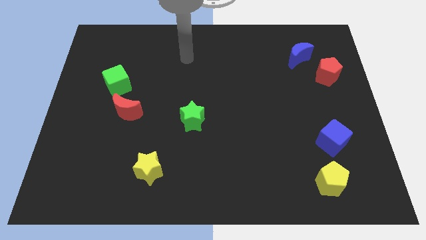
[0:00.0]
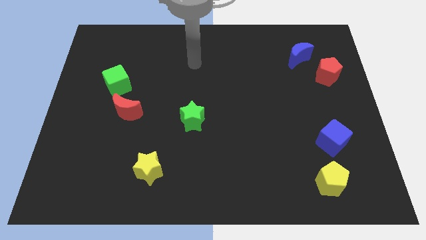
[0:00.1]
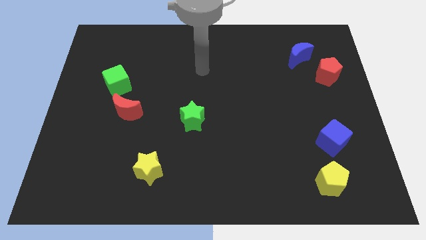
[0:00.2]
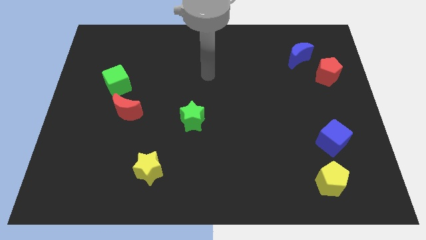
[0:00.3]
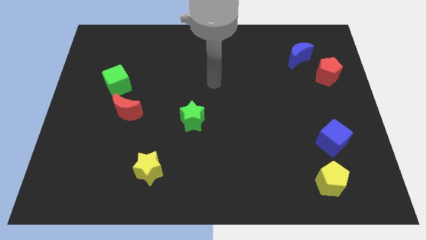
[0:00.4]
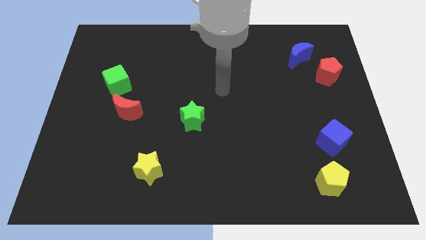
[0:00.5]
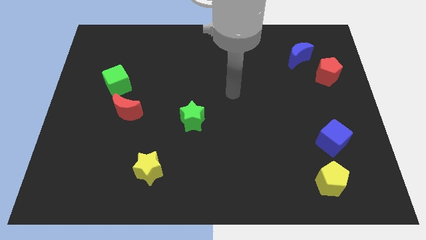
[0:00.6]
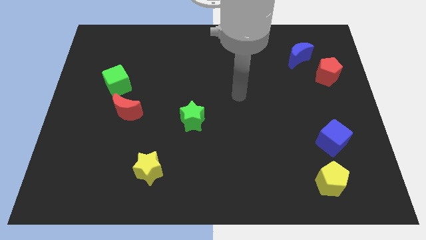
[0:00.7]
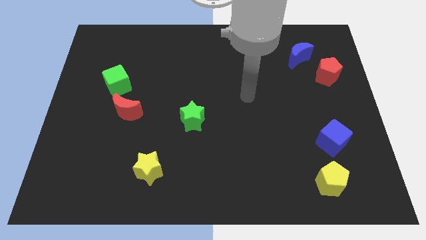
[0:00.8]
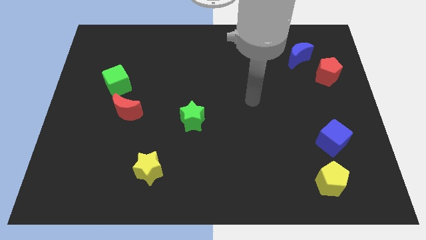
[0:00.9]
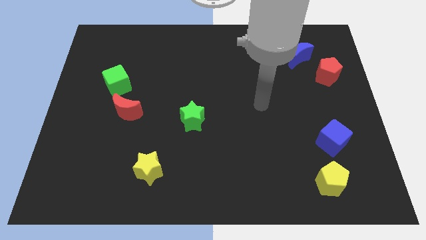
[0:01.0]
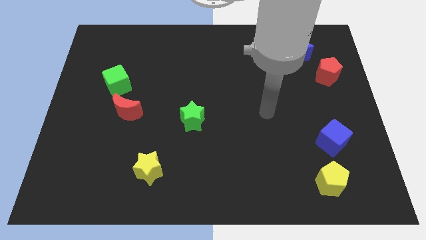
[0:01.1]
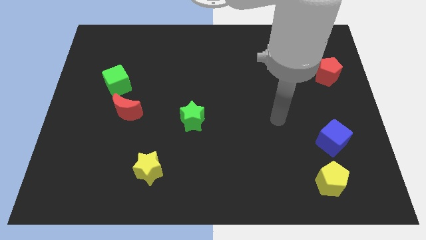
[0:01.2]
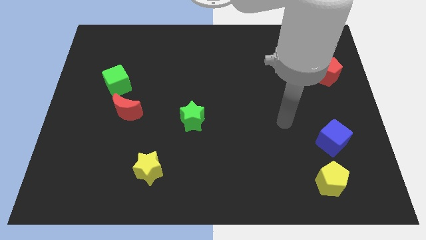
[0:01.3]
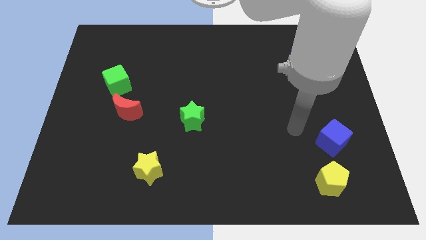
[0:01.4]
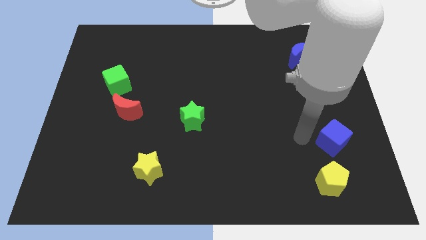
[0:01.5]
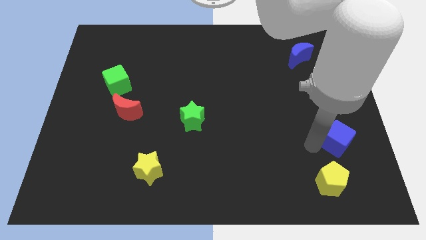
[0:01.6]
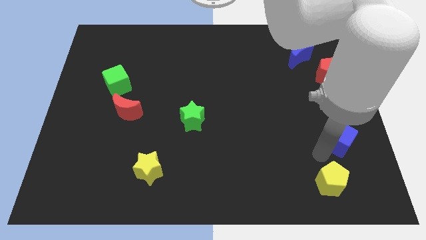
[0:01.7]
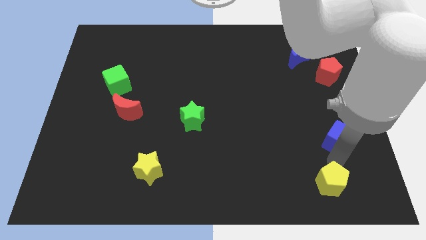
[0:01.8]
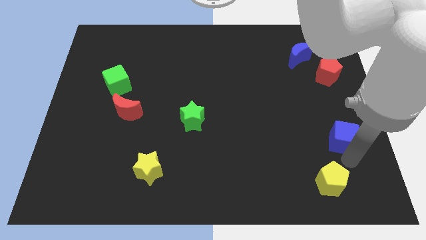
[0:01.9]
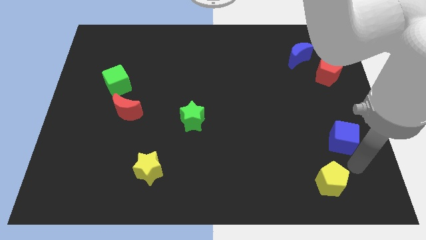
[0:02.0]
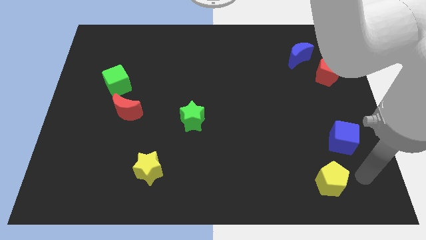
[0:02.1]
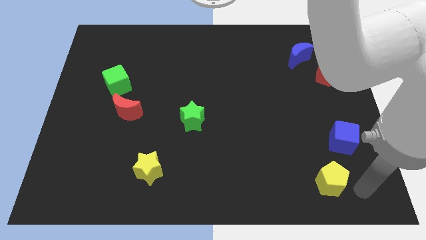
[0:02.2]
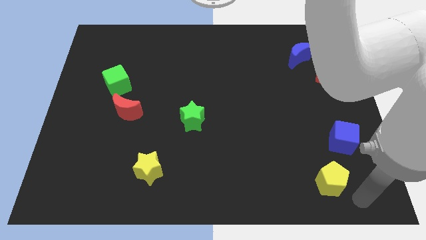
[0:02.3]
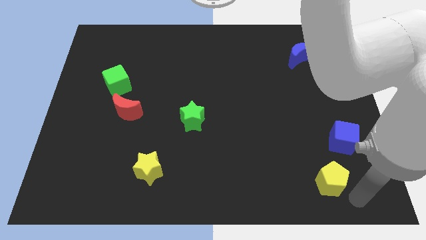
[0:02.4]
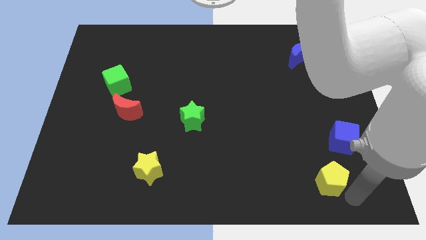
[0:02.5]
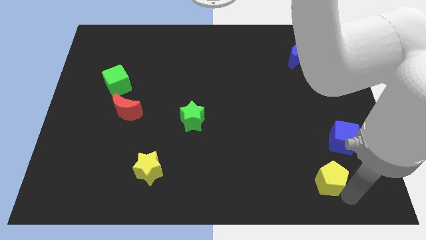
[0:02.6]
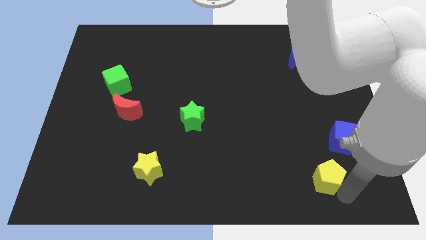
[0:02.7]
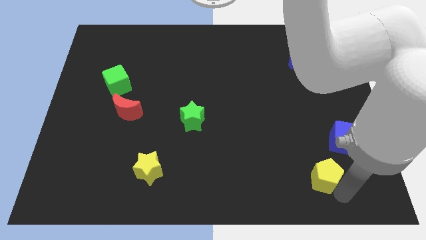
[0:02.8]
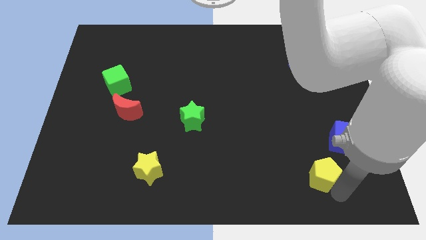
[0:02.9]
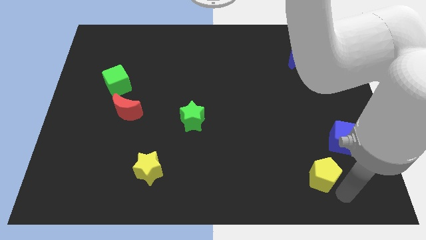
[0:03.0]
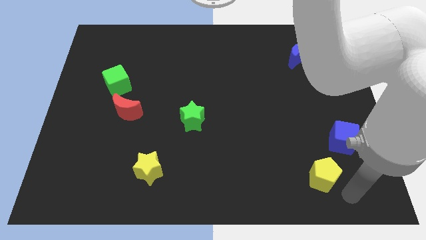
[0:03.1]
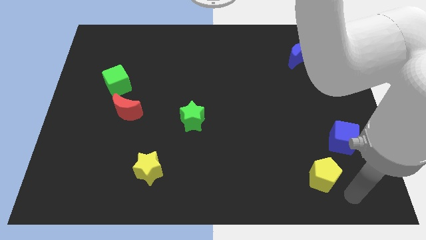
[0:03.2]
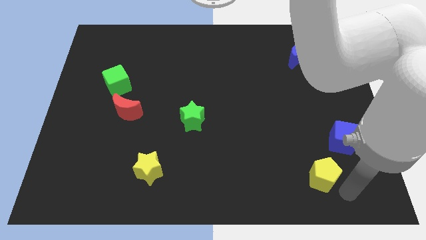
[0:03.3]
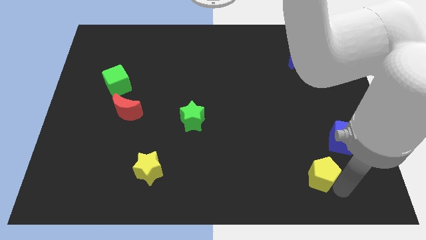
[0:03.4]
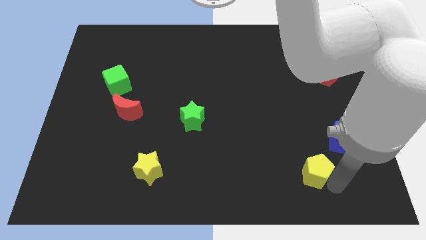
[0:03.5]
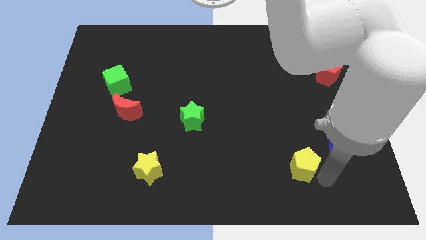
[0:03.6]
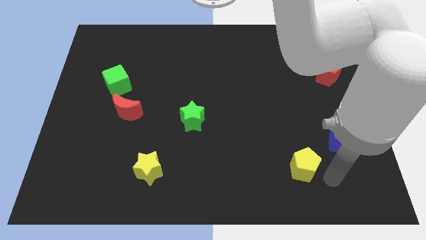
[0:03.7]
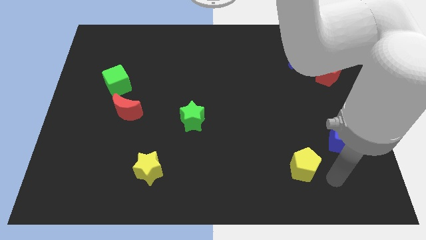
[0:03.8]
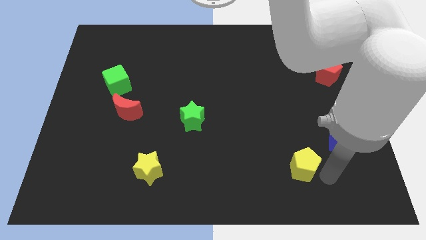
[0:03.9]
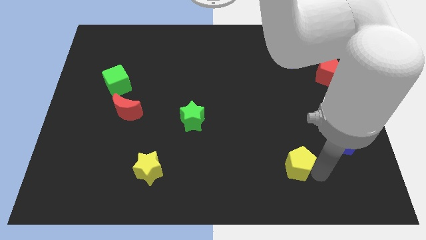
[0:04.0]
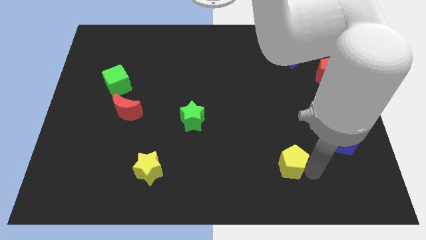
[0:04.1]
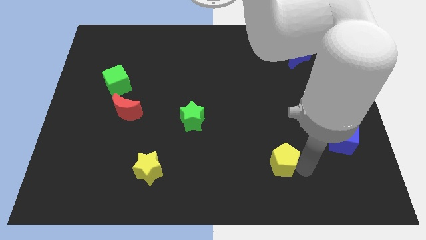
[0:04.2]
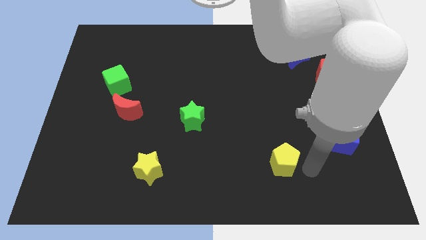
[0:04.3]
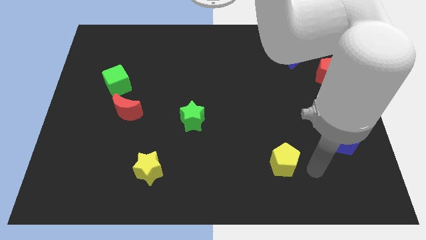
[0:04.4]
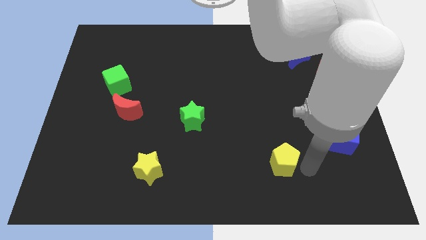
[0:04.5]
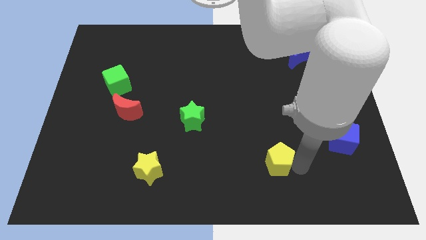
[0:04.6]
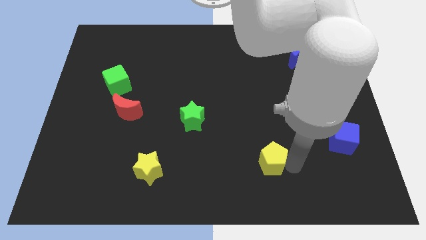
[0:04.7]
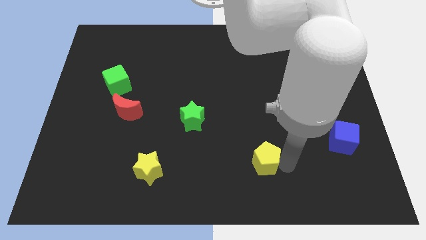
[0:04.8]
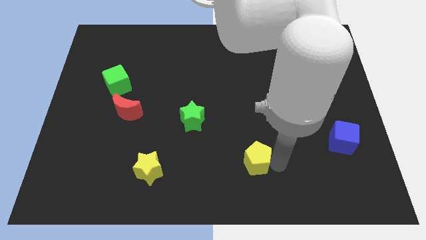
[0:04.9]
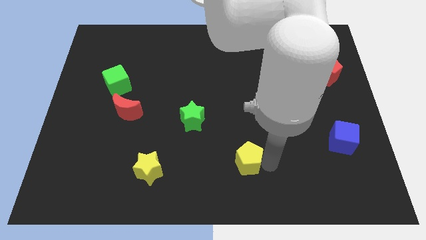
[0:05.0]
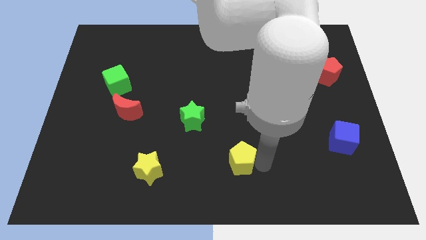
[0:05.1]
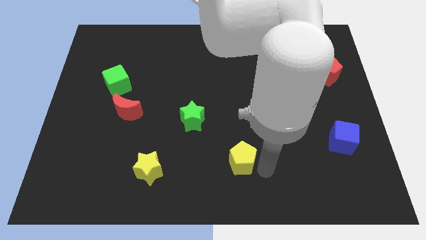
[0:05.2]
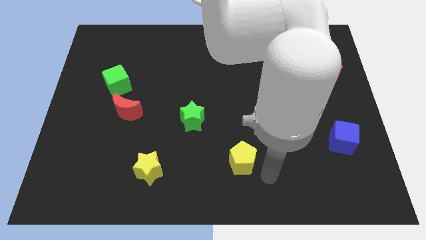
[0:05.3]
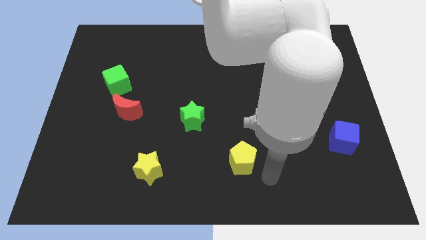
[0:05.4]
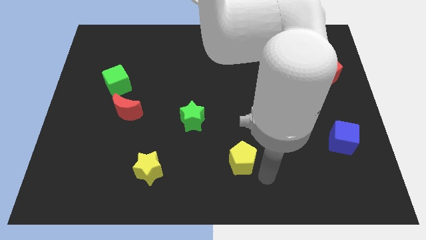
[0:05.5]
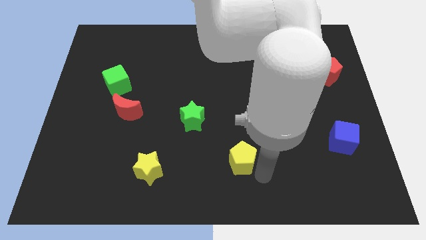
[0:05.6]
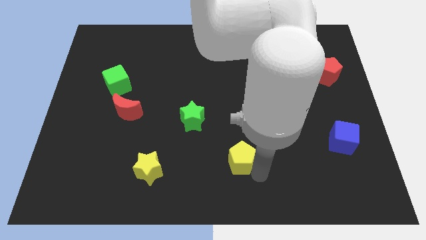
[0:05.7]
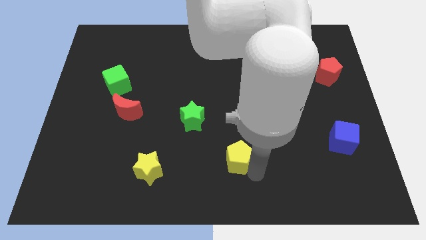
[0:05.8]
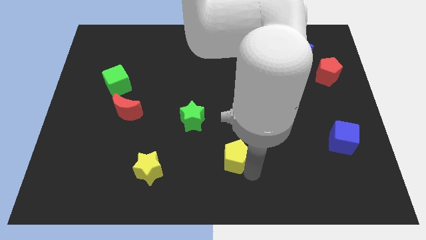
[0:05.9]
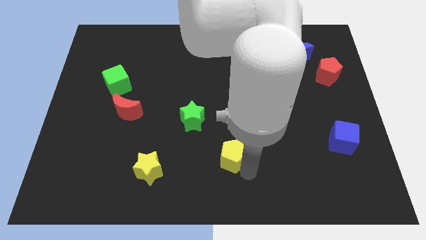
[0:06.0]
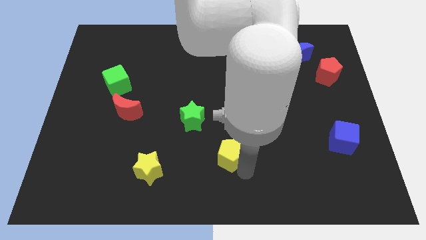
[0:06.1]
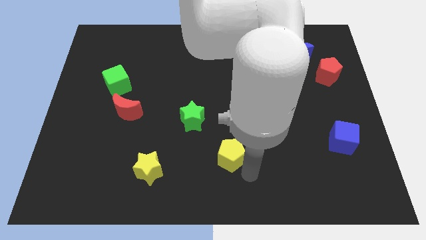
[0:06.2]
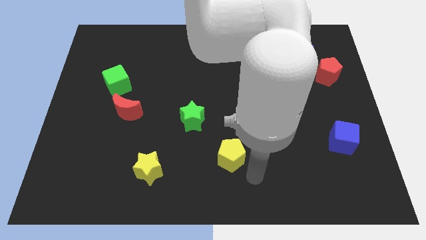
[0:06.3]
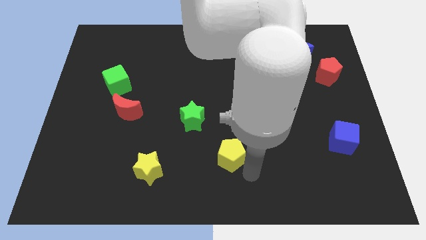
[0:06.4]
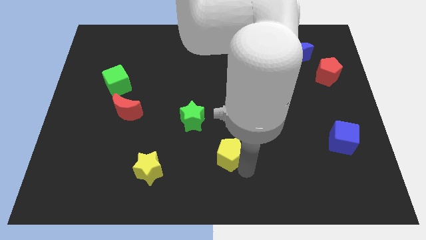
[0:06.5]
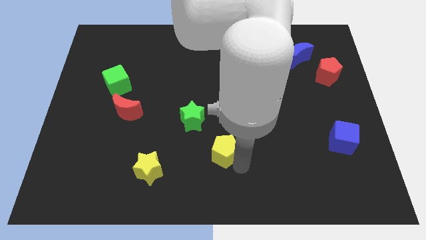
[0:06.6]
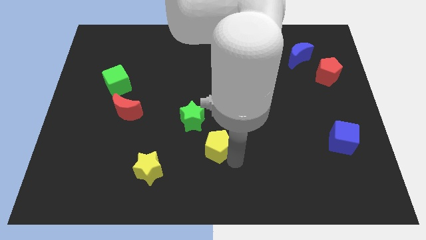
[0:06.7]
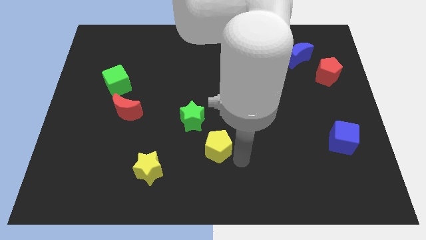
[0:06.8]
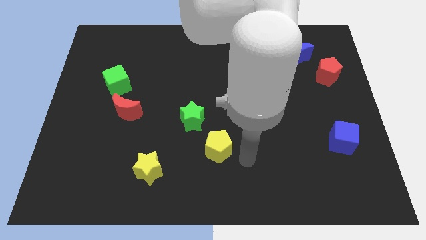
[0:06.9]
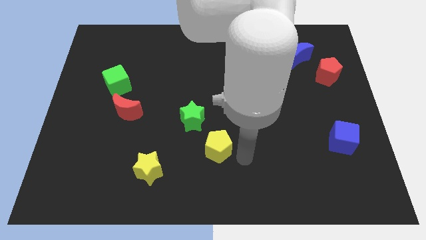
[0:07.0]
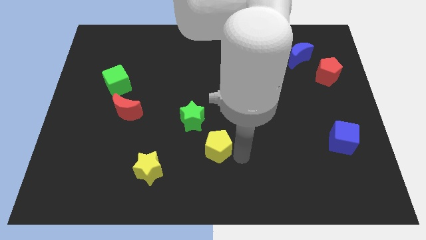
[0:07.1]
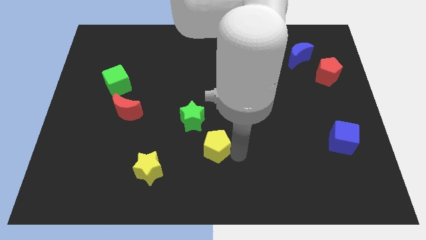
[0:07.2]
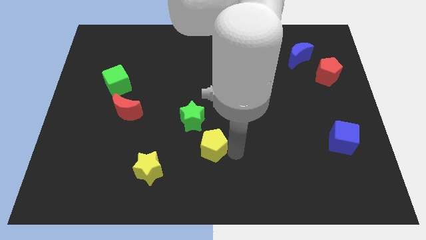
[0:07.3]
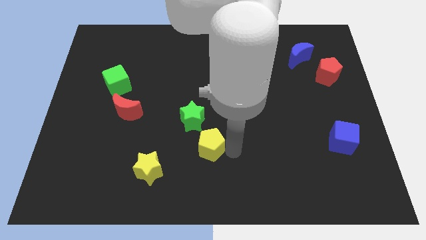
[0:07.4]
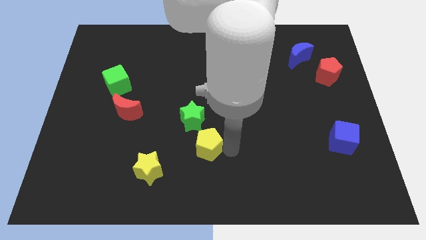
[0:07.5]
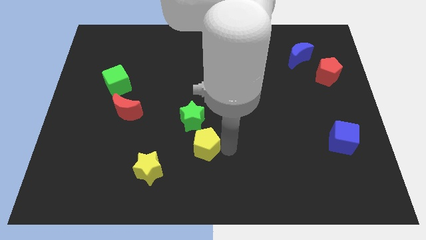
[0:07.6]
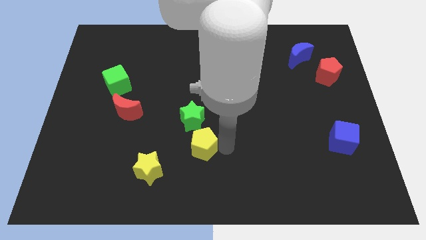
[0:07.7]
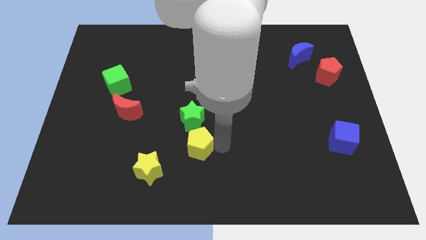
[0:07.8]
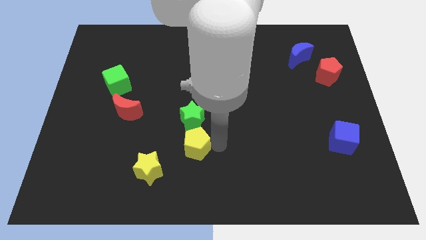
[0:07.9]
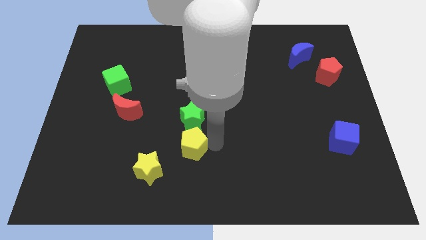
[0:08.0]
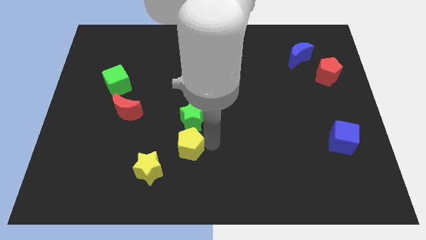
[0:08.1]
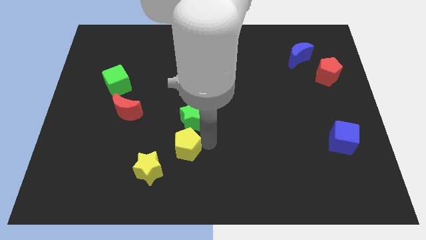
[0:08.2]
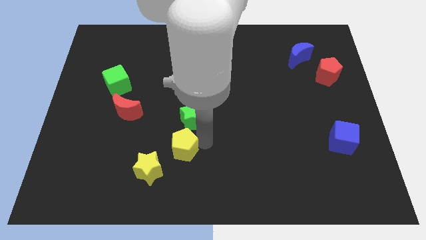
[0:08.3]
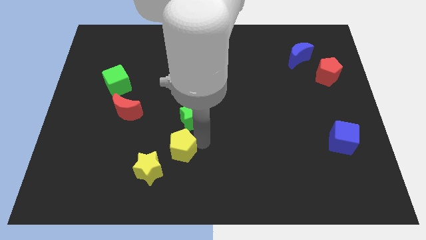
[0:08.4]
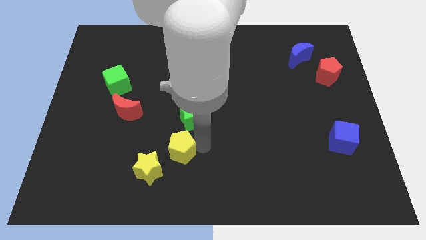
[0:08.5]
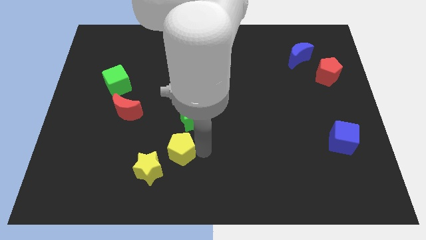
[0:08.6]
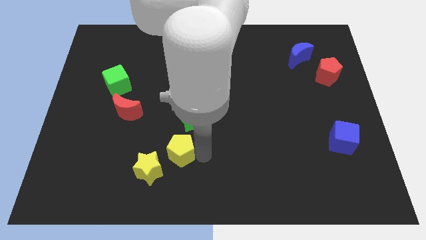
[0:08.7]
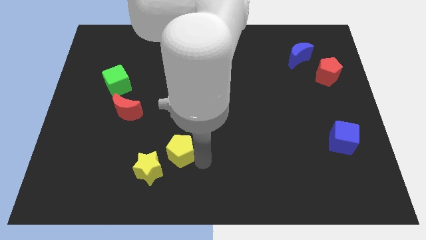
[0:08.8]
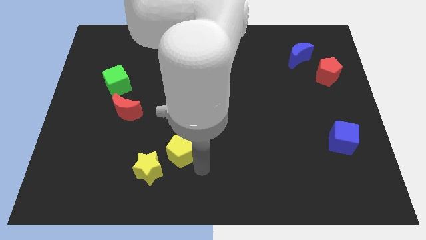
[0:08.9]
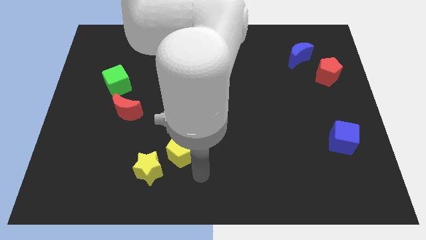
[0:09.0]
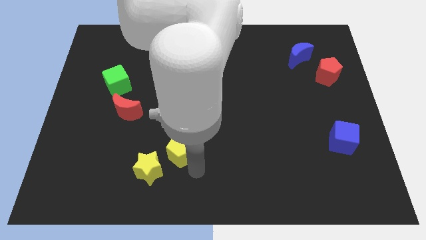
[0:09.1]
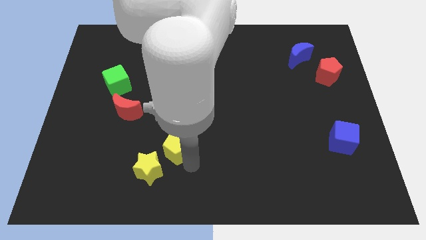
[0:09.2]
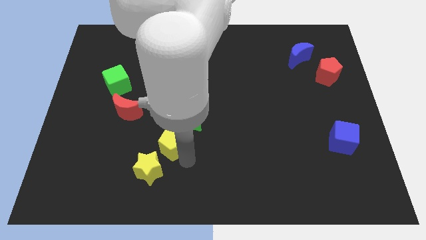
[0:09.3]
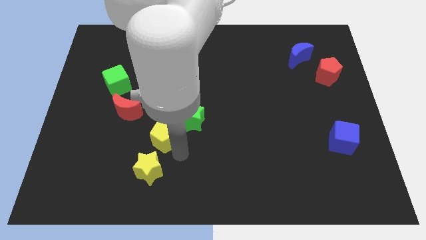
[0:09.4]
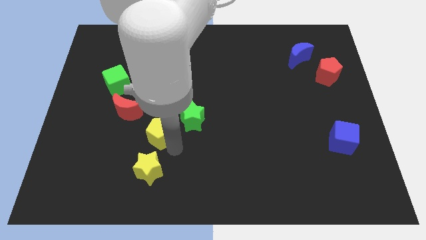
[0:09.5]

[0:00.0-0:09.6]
slide the yellow pentagon just left of the green star
